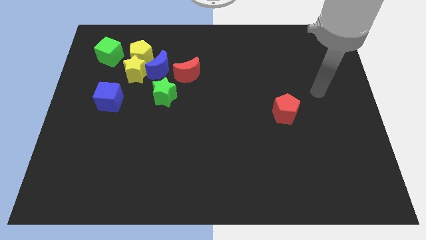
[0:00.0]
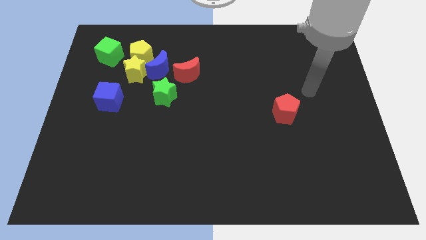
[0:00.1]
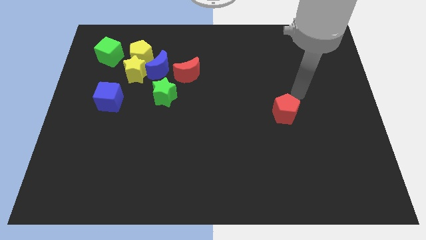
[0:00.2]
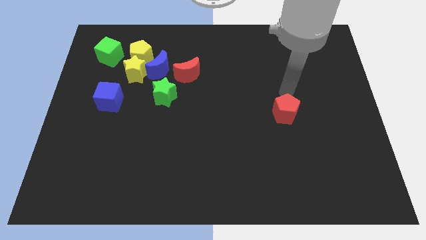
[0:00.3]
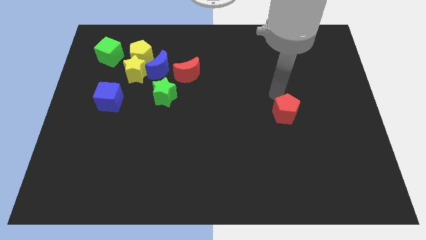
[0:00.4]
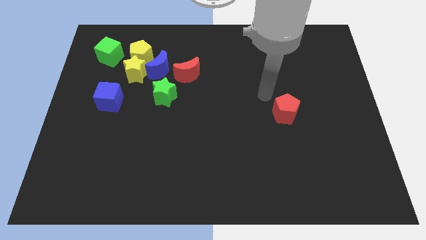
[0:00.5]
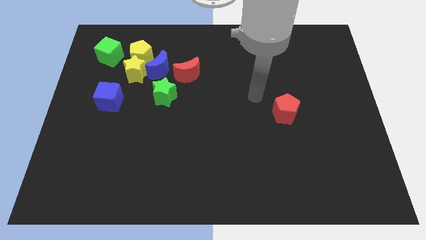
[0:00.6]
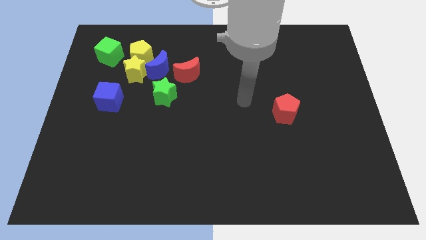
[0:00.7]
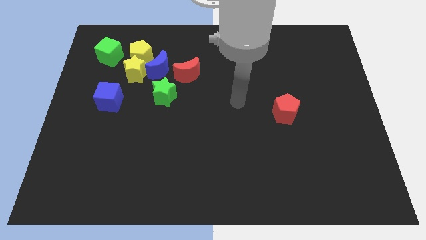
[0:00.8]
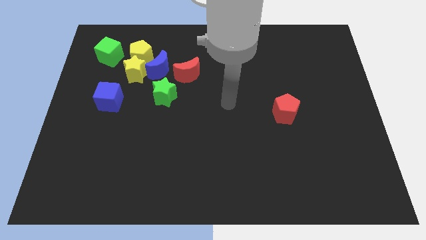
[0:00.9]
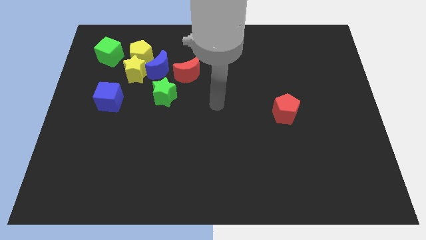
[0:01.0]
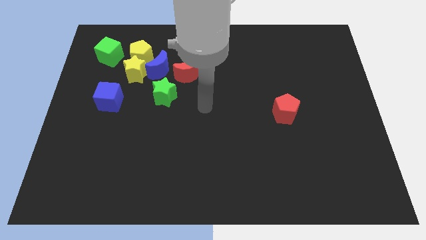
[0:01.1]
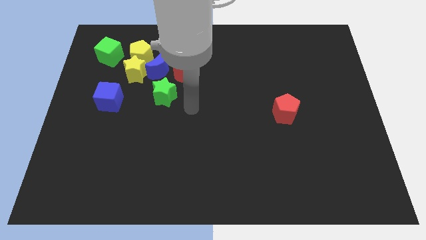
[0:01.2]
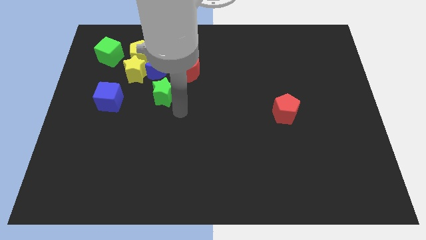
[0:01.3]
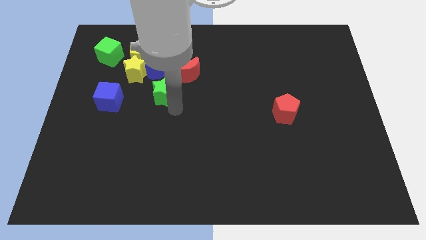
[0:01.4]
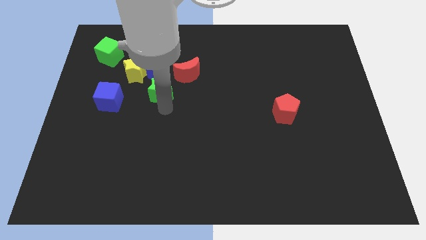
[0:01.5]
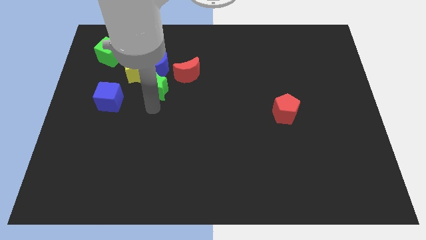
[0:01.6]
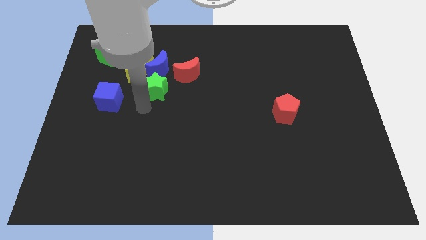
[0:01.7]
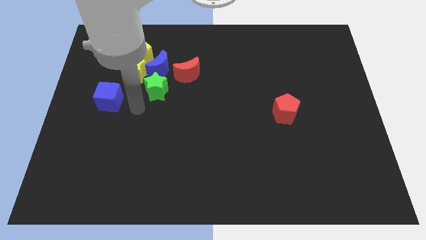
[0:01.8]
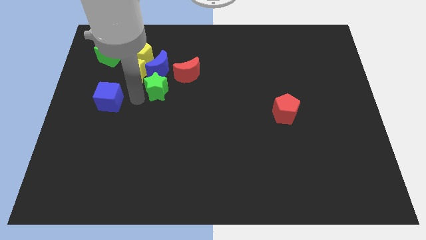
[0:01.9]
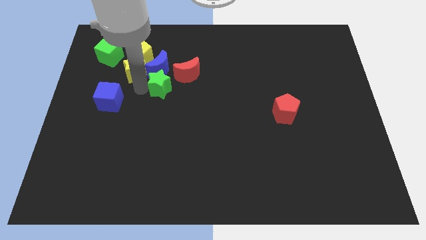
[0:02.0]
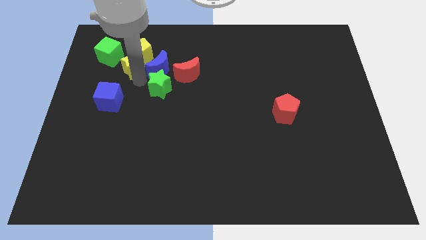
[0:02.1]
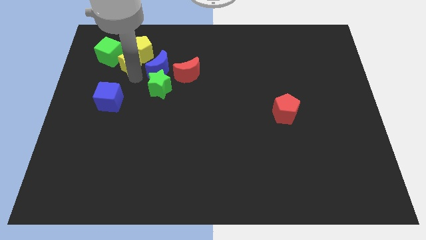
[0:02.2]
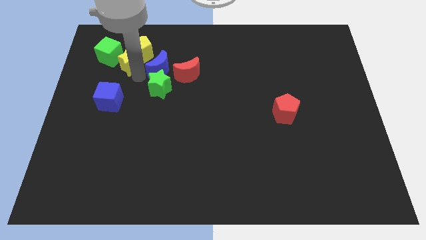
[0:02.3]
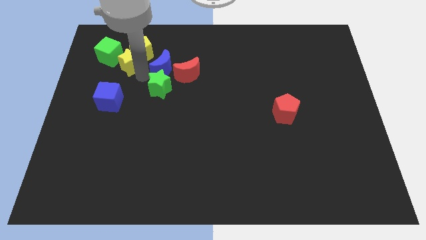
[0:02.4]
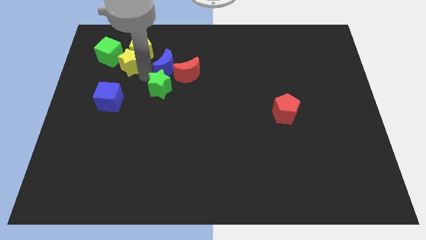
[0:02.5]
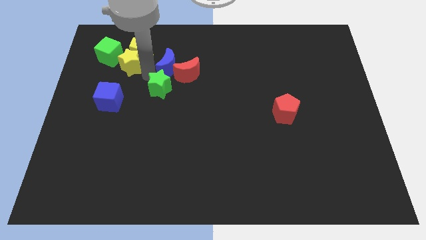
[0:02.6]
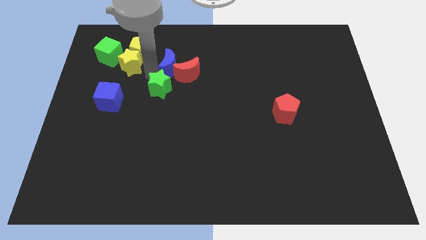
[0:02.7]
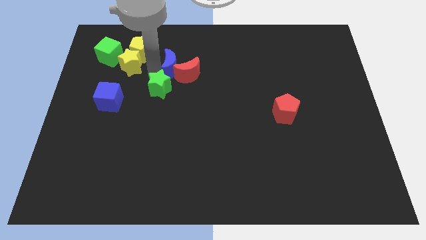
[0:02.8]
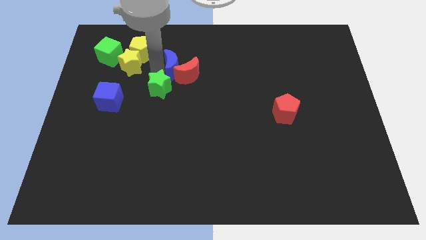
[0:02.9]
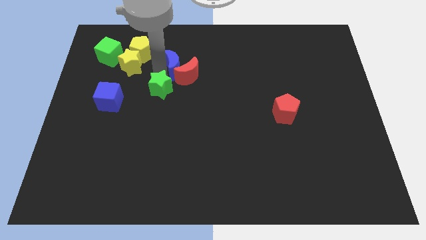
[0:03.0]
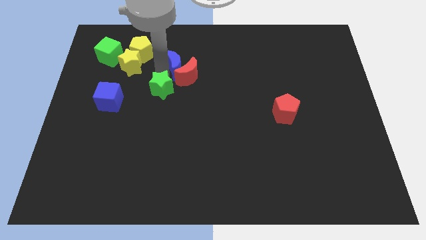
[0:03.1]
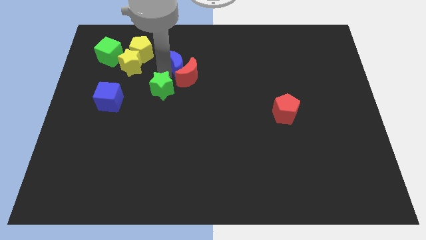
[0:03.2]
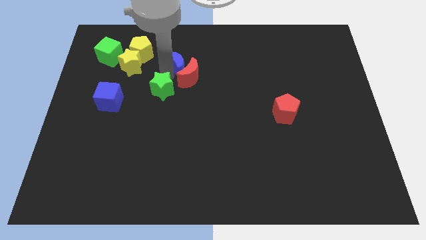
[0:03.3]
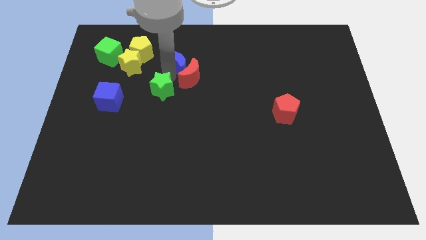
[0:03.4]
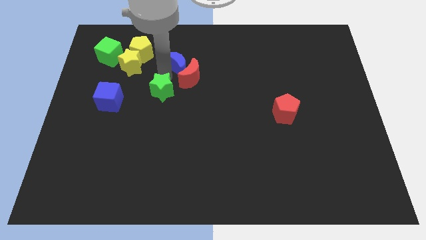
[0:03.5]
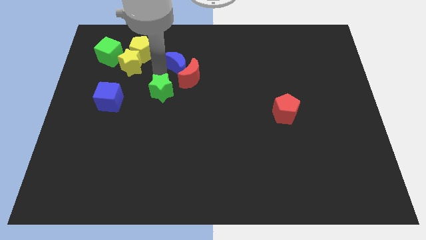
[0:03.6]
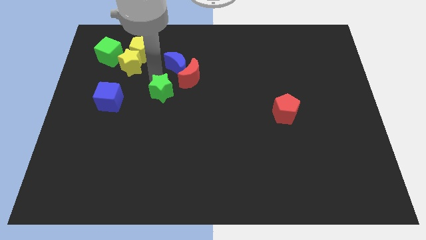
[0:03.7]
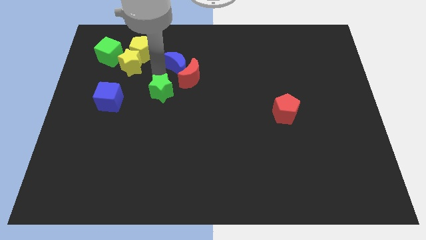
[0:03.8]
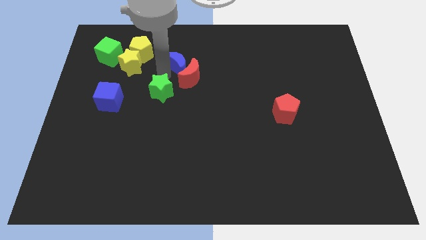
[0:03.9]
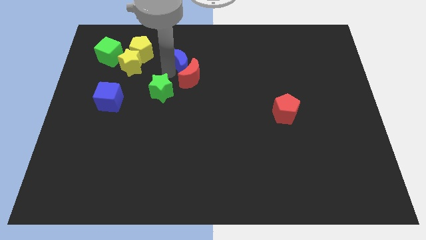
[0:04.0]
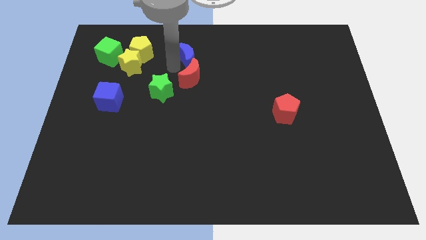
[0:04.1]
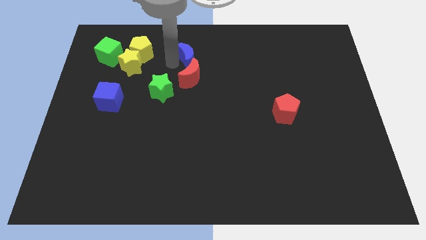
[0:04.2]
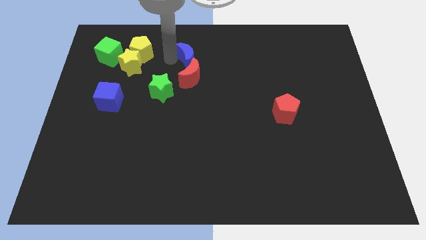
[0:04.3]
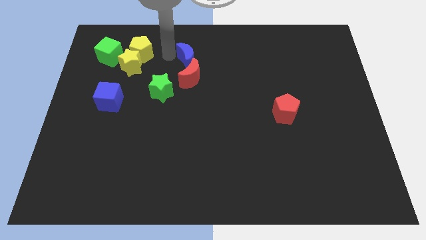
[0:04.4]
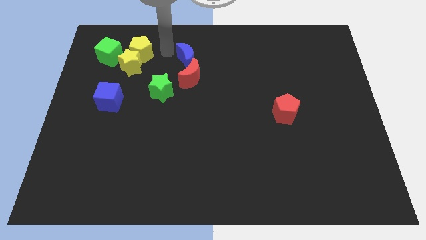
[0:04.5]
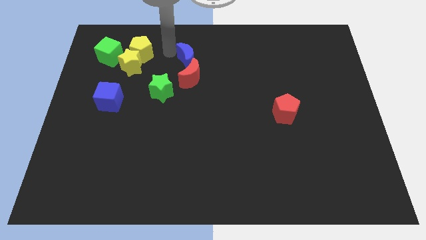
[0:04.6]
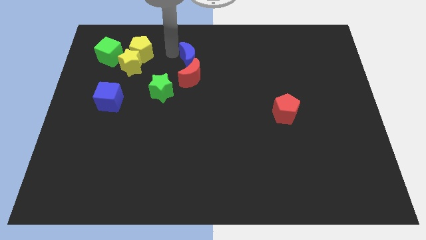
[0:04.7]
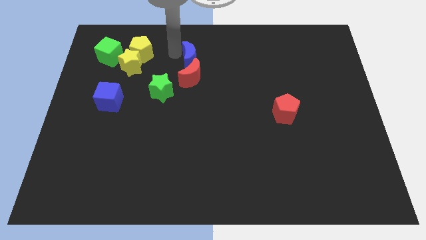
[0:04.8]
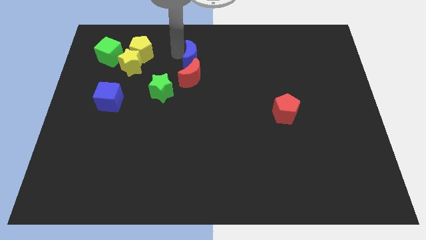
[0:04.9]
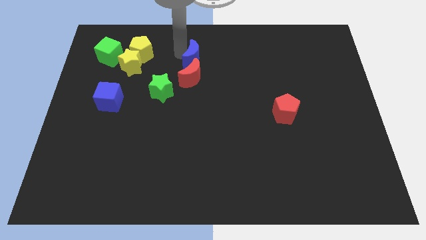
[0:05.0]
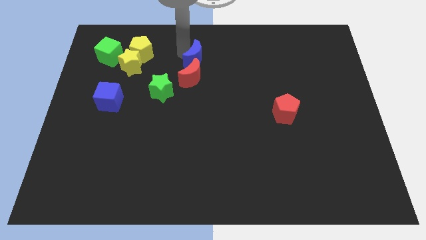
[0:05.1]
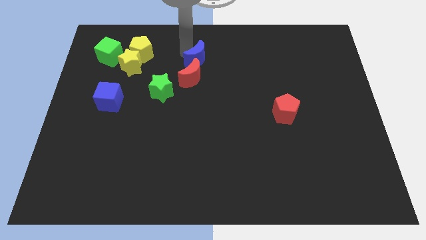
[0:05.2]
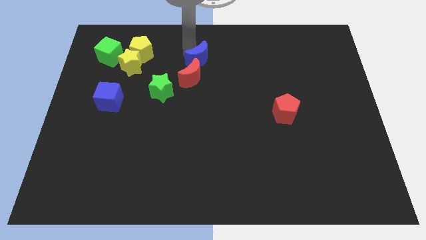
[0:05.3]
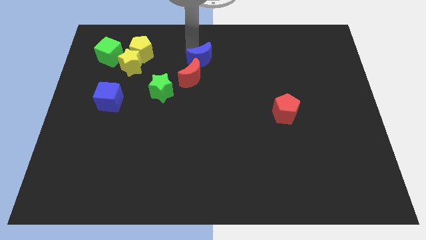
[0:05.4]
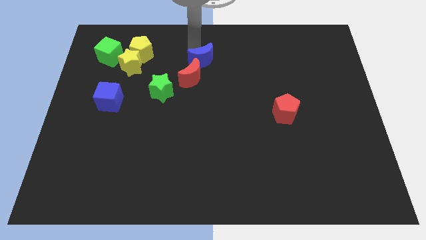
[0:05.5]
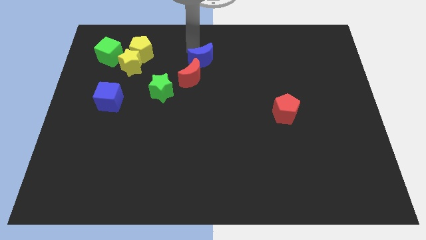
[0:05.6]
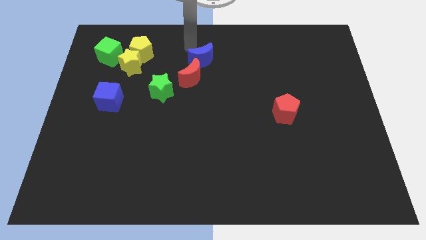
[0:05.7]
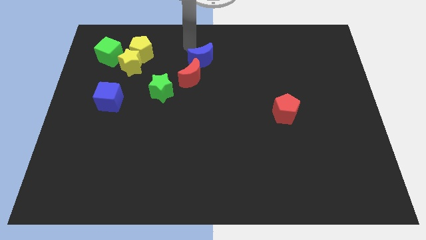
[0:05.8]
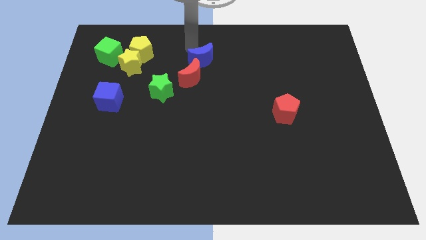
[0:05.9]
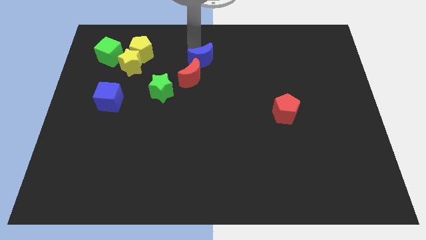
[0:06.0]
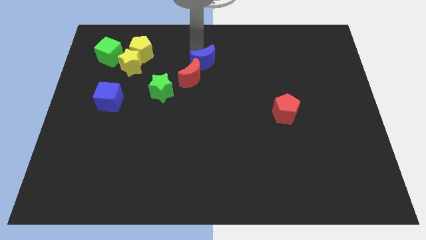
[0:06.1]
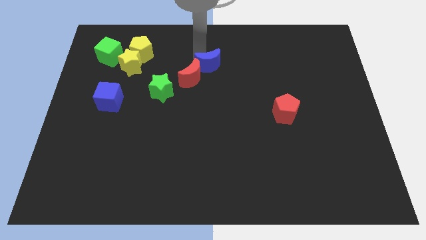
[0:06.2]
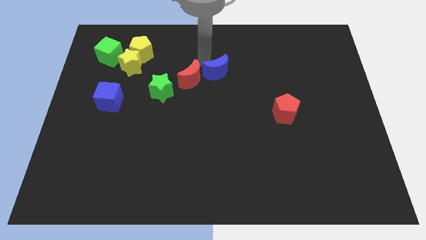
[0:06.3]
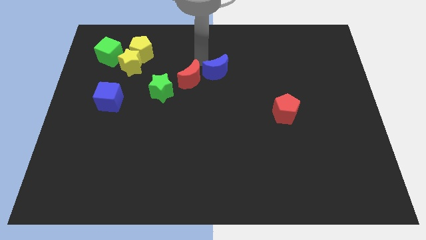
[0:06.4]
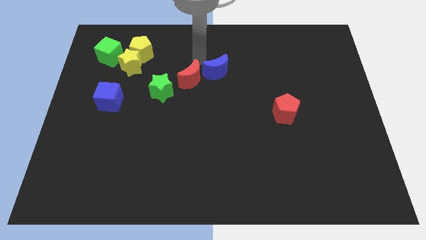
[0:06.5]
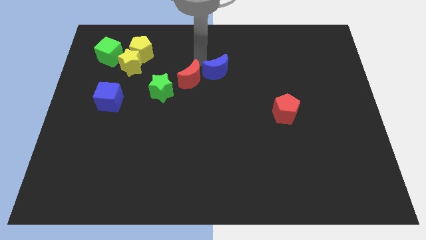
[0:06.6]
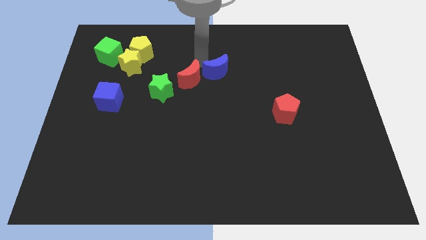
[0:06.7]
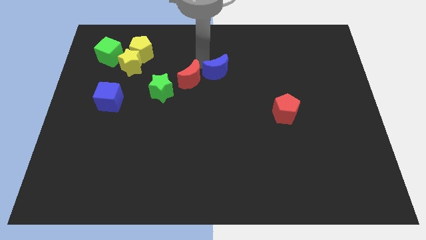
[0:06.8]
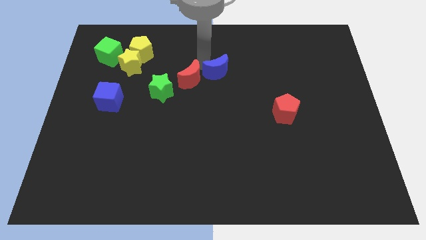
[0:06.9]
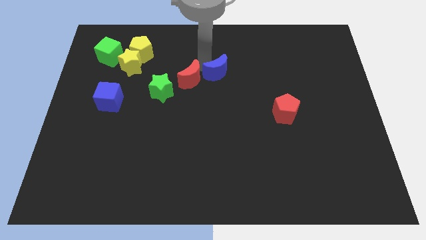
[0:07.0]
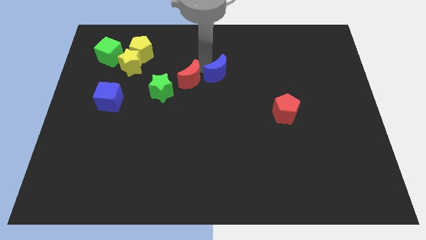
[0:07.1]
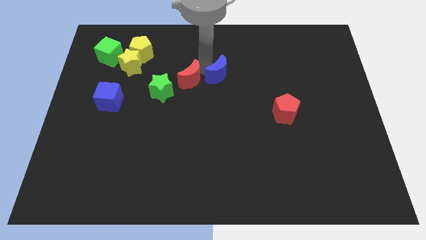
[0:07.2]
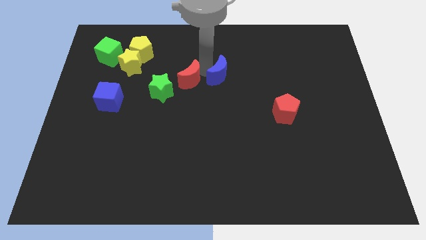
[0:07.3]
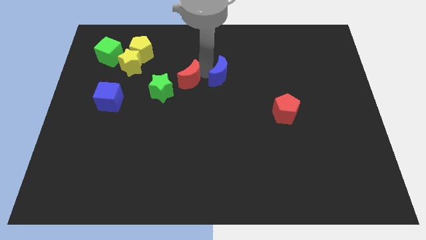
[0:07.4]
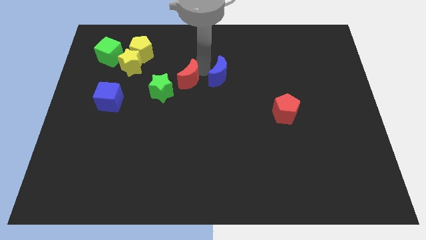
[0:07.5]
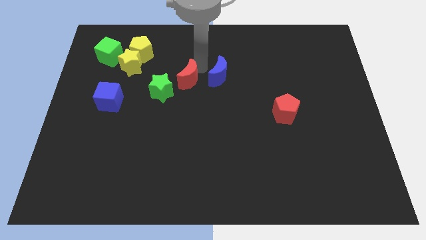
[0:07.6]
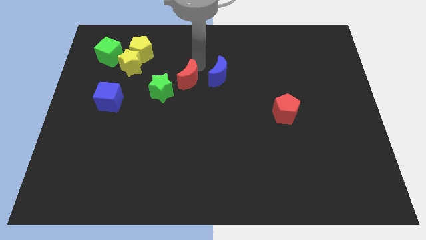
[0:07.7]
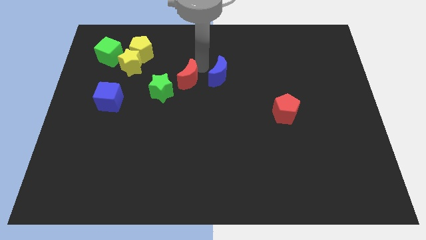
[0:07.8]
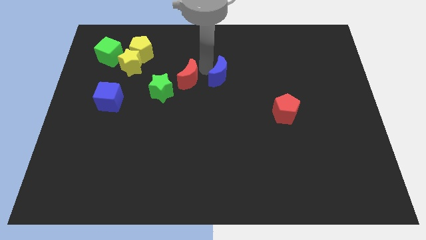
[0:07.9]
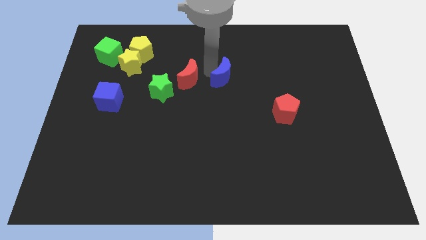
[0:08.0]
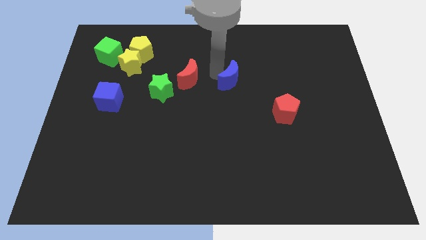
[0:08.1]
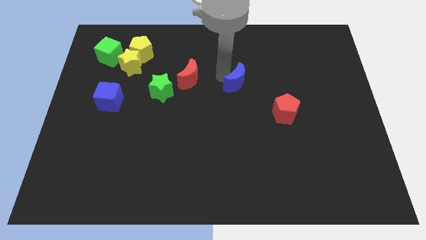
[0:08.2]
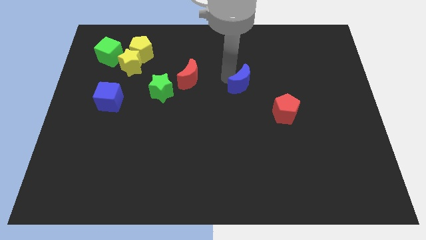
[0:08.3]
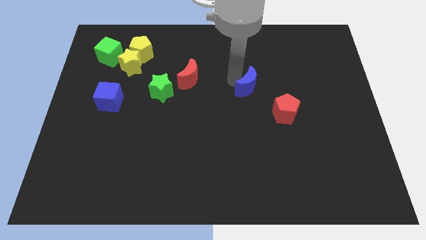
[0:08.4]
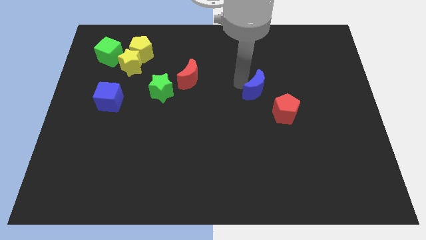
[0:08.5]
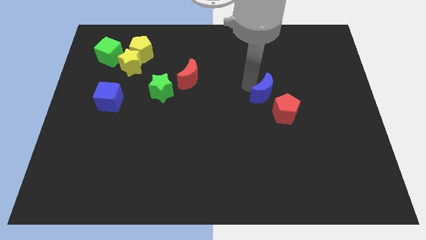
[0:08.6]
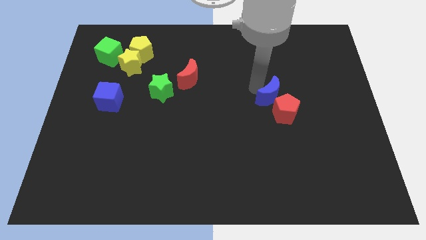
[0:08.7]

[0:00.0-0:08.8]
push the blue moon next to the red pentagon
